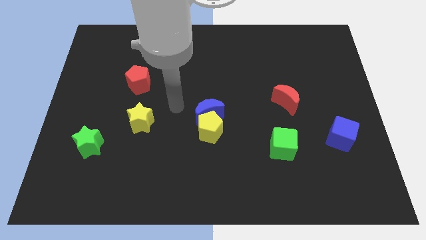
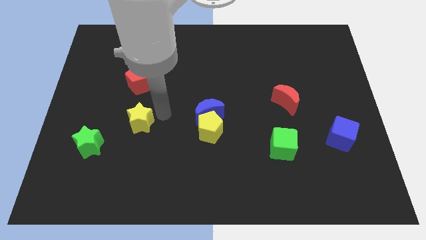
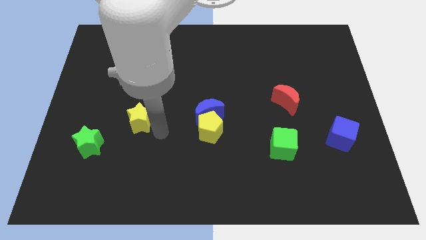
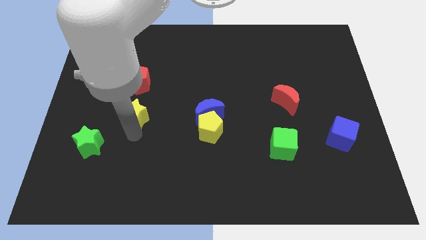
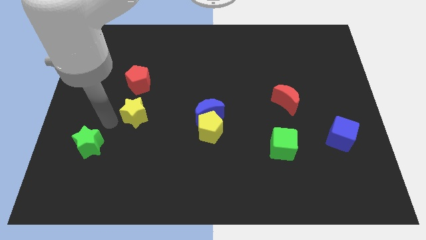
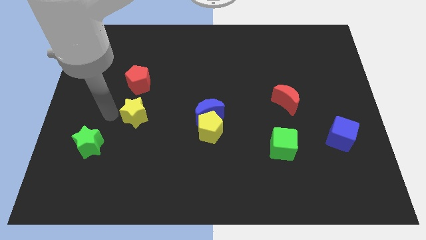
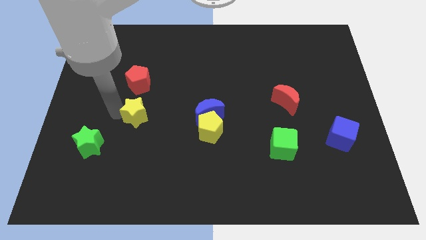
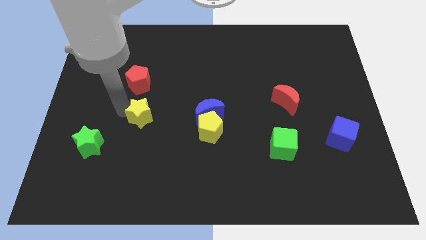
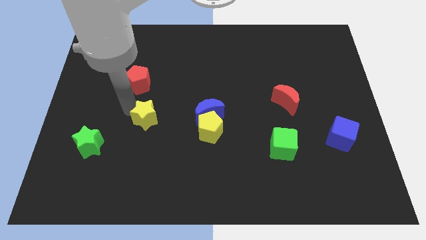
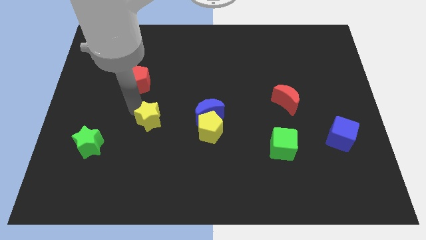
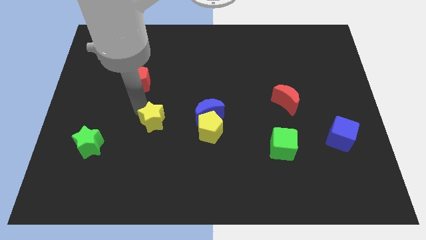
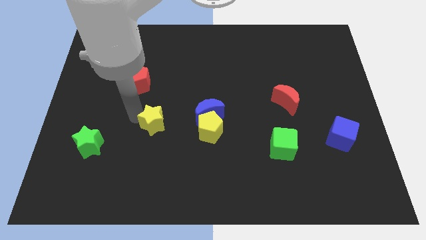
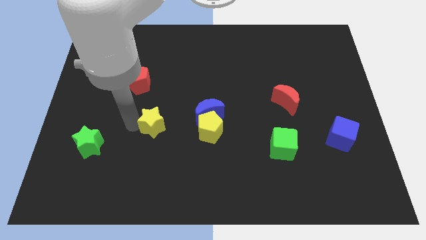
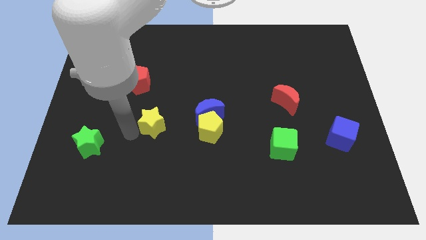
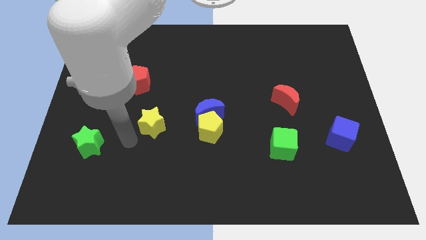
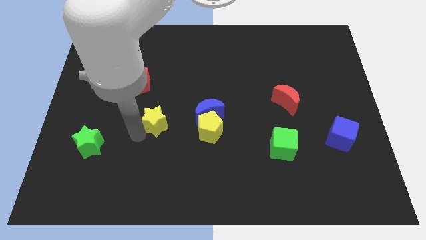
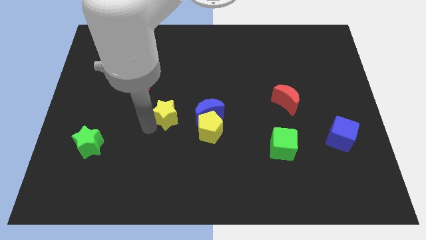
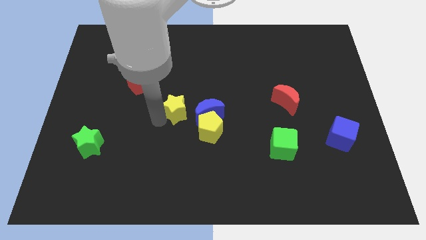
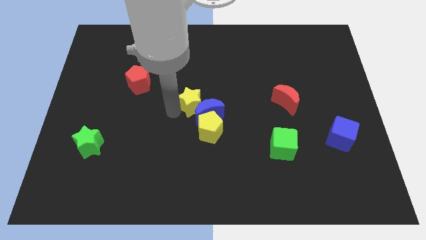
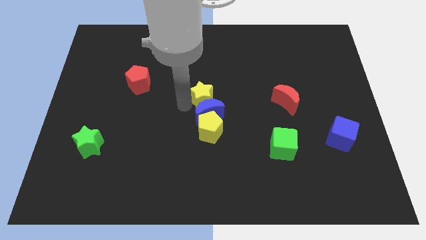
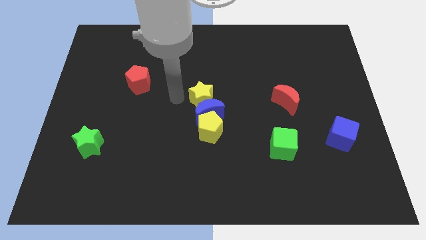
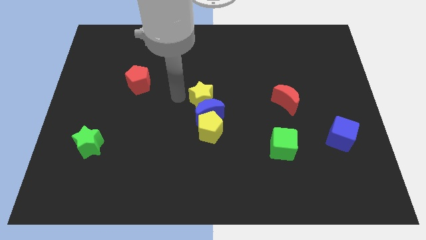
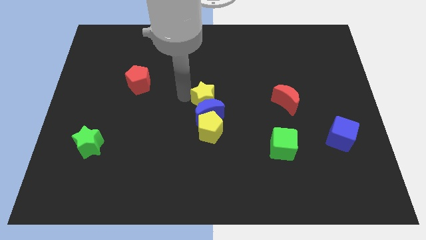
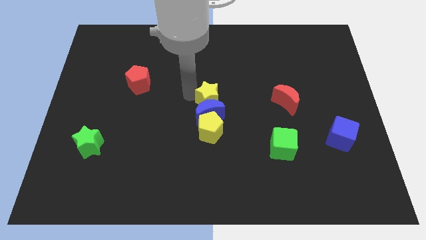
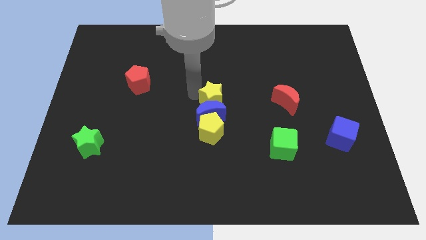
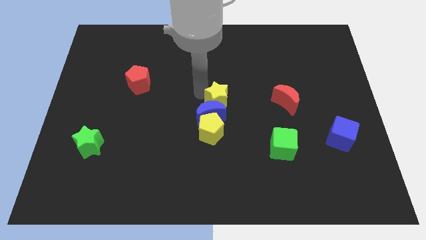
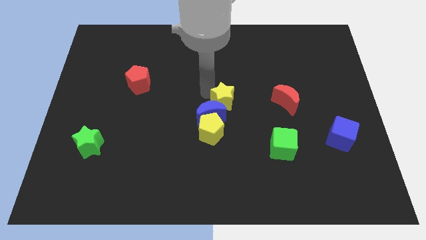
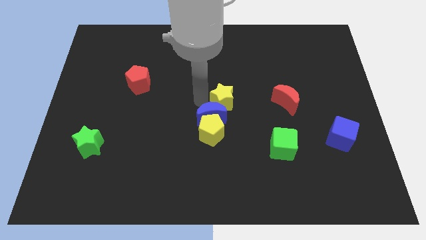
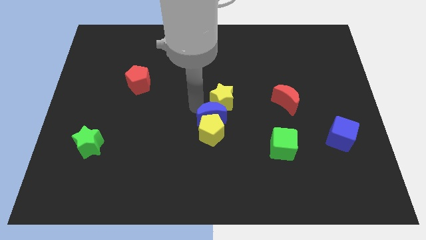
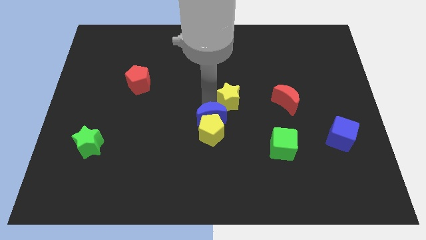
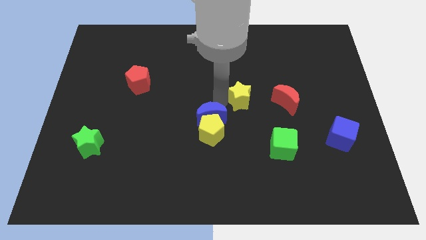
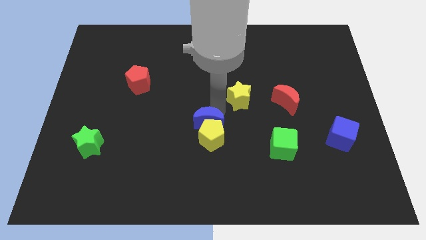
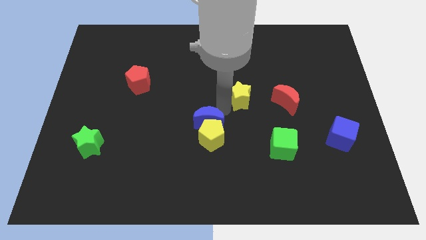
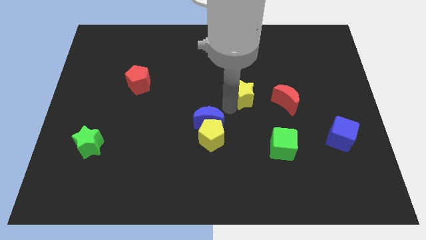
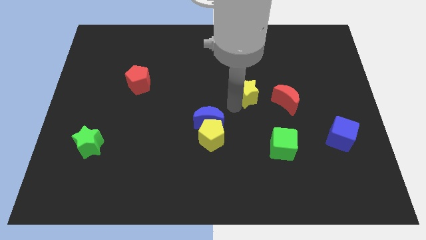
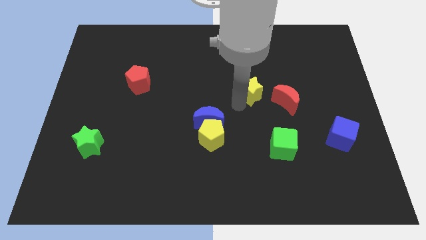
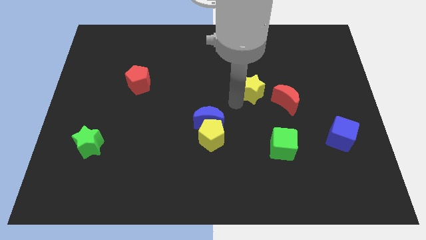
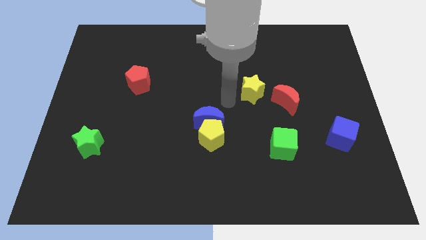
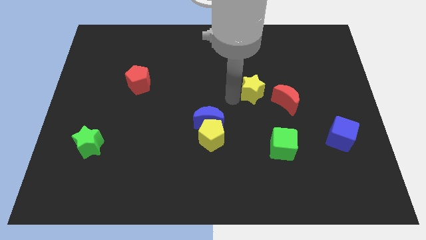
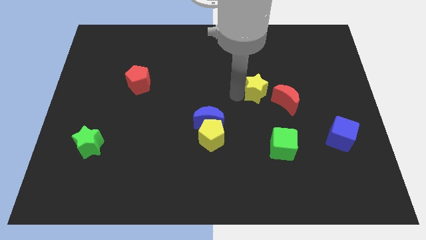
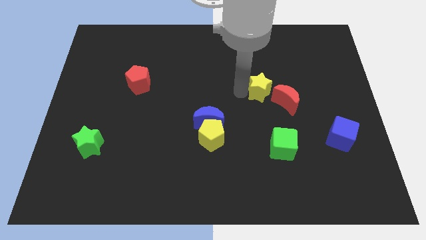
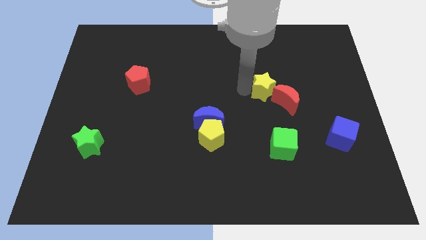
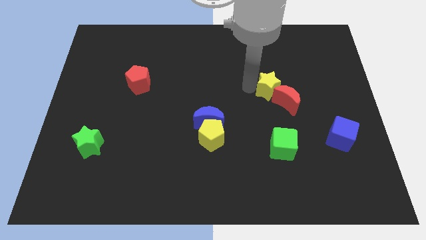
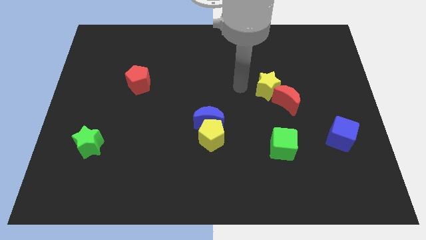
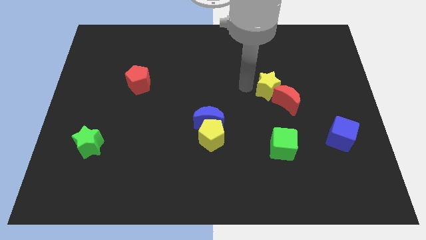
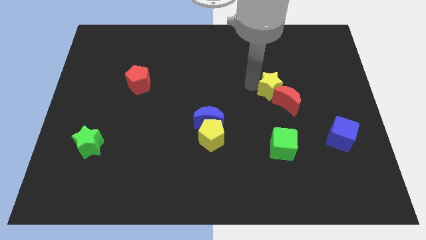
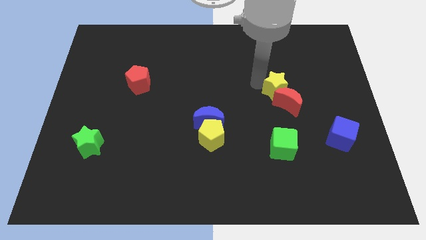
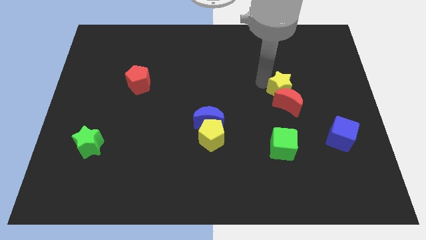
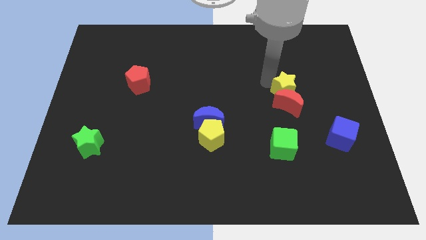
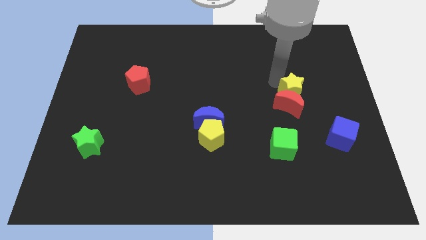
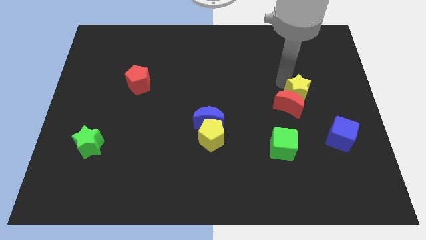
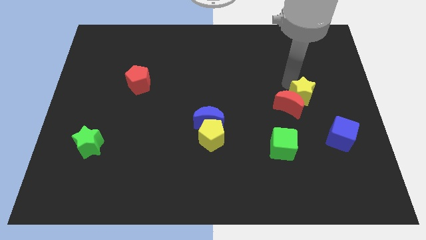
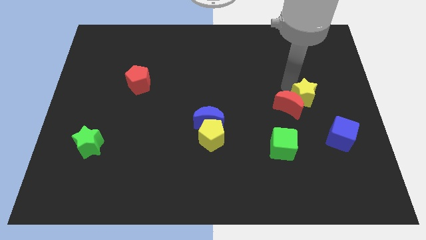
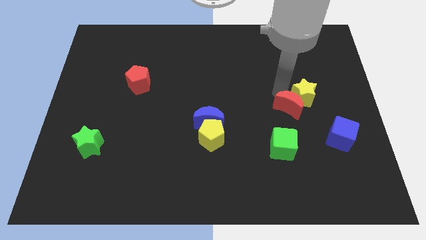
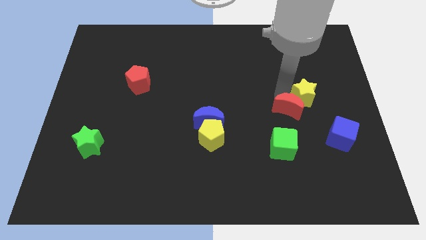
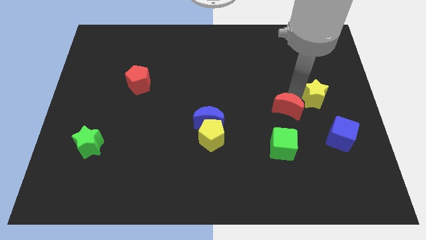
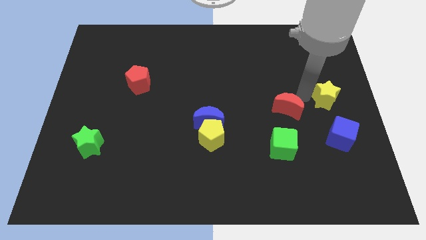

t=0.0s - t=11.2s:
move the yellow star to the right side

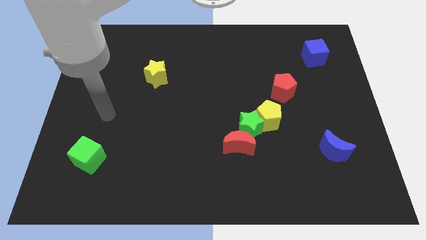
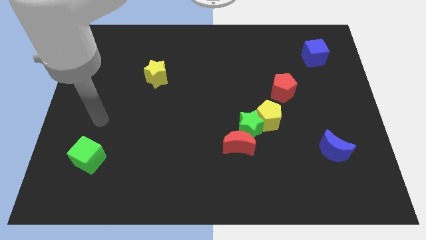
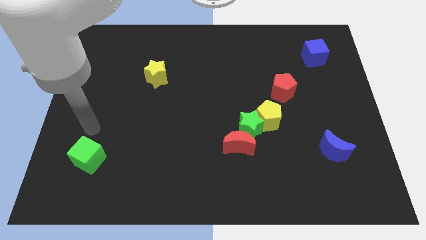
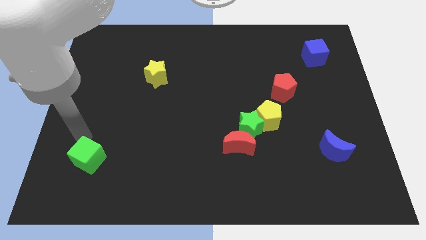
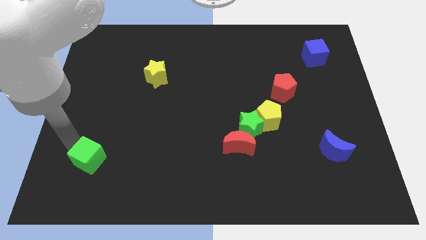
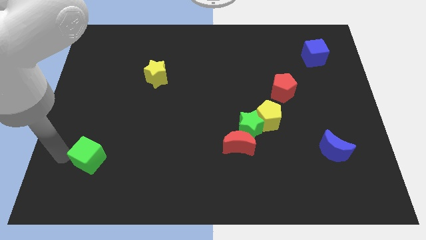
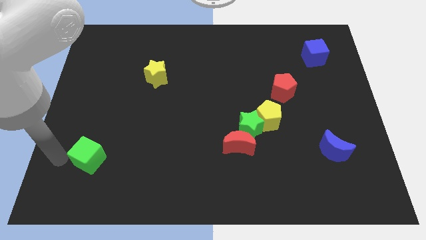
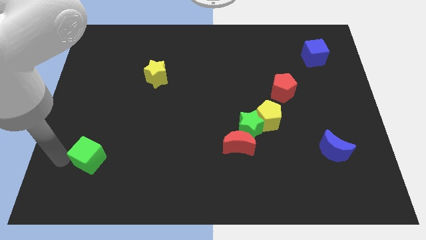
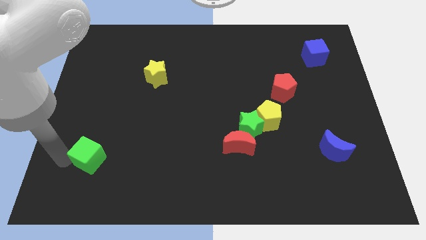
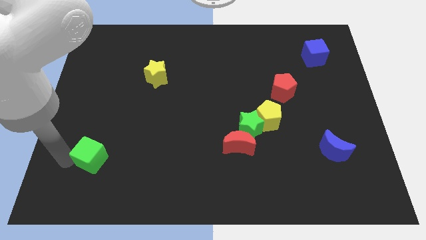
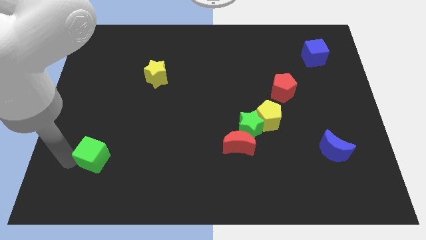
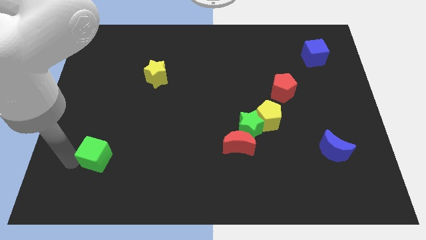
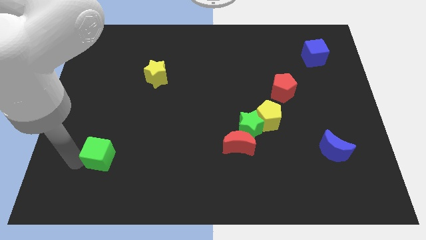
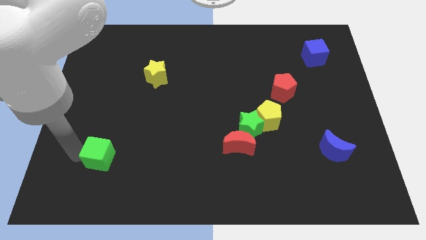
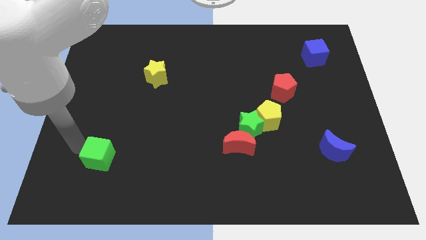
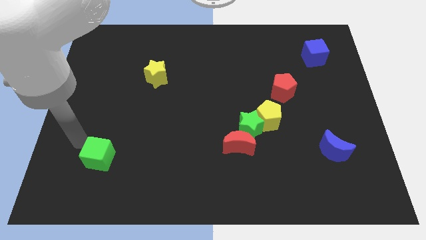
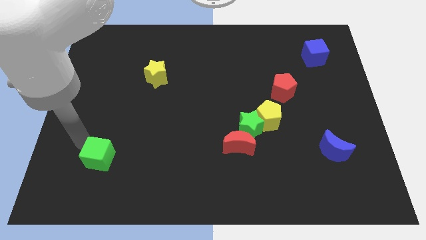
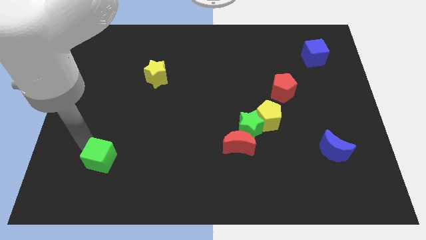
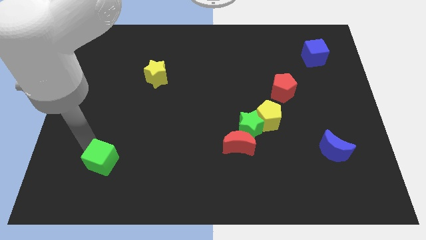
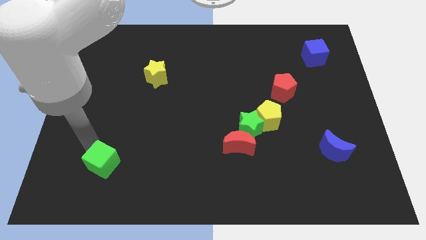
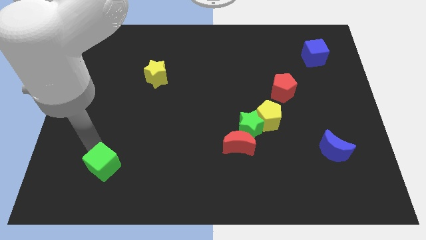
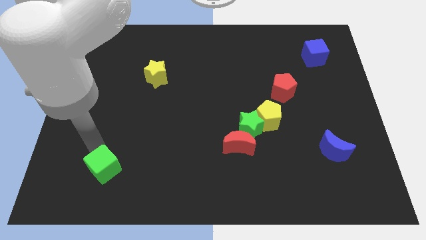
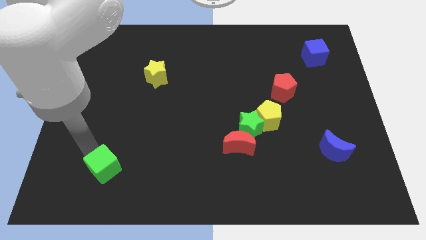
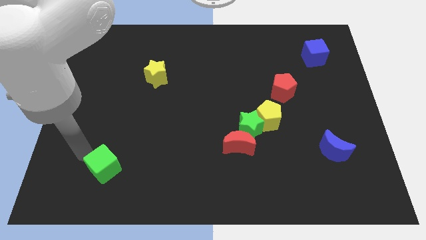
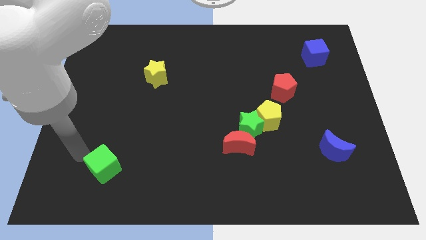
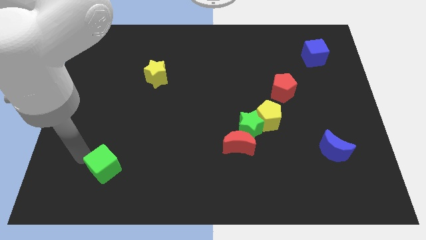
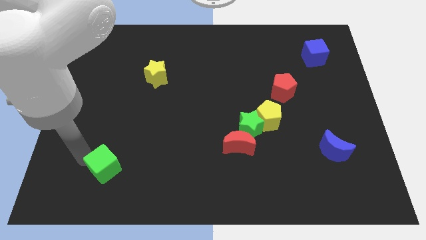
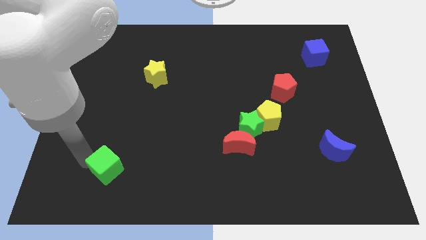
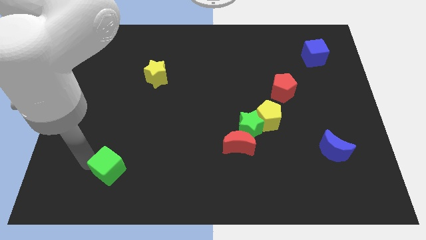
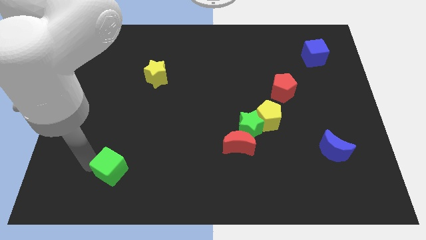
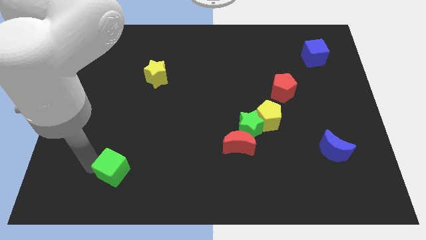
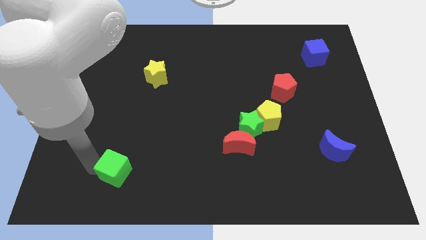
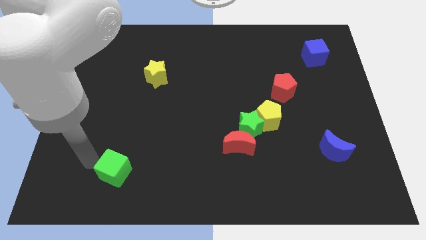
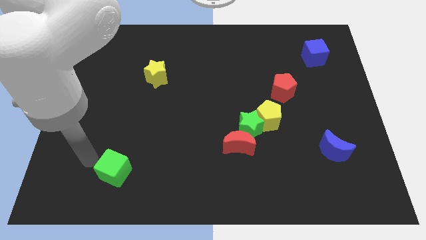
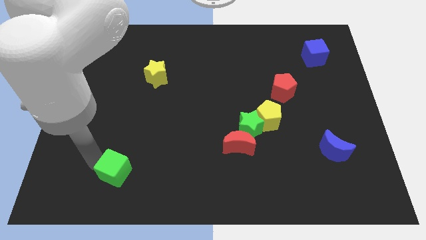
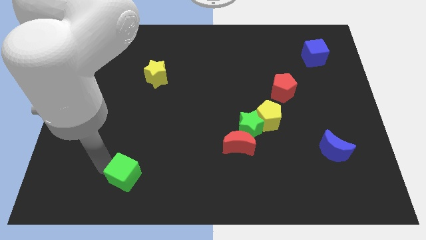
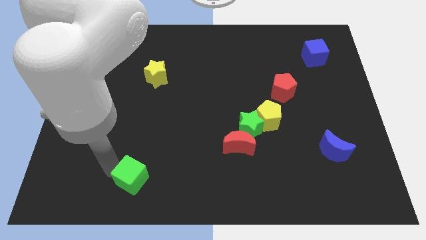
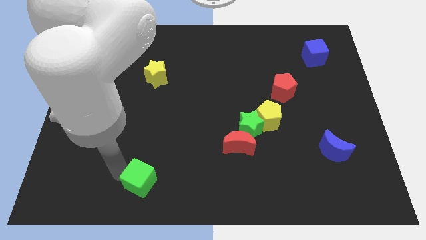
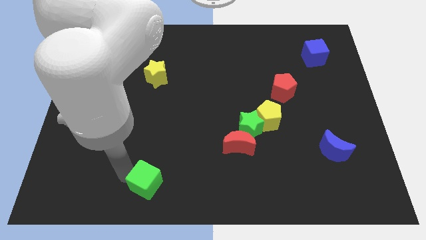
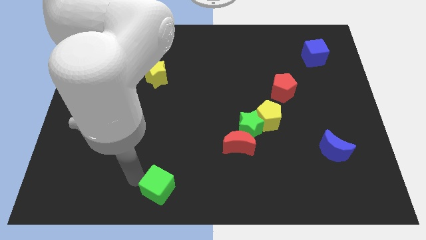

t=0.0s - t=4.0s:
slide the green cube to the bottom
